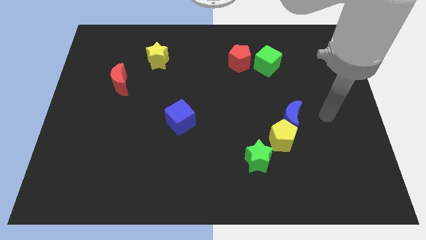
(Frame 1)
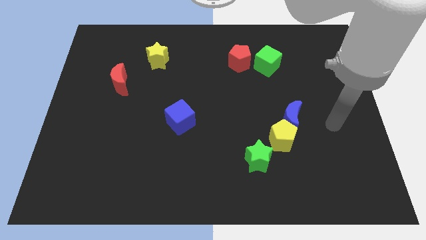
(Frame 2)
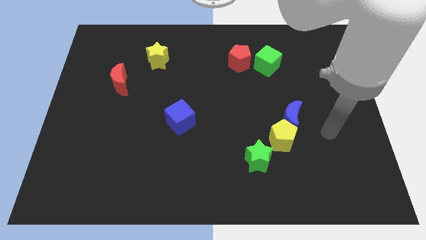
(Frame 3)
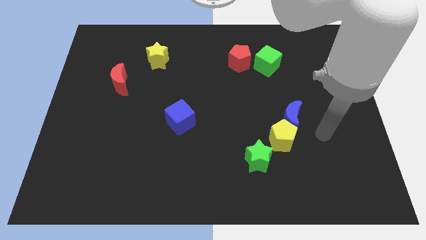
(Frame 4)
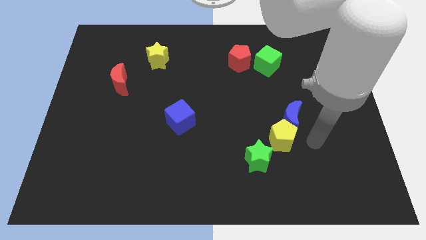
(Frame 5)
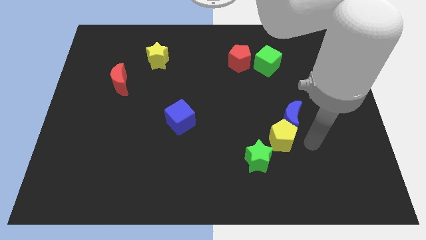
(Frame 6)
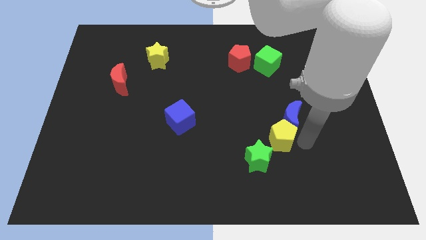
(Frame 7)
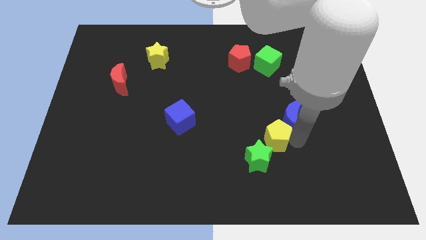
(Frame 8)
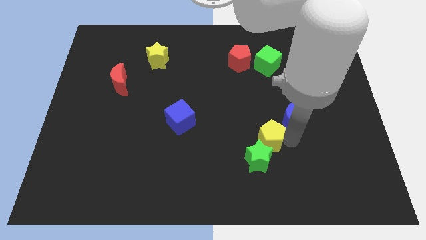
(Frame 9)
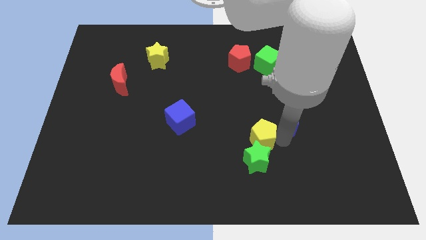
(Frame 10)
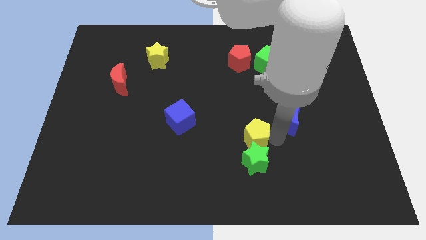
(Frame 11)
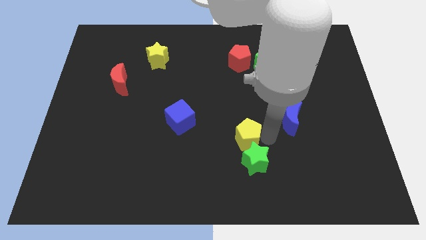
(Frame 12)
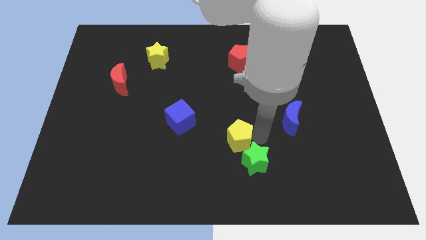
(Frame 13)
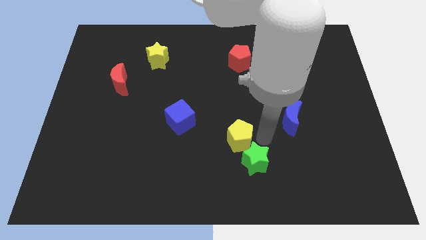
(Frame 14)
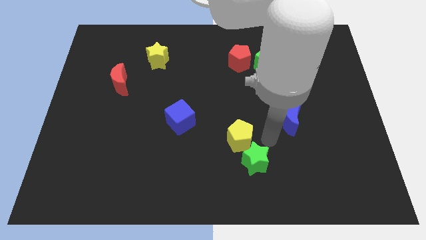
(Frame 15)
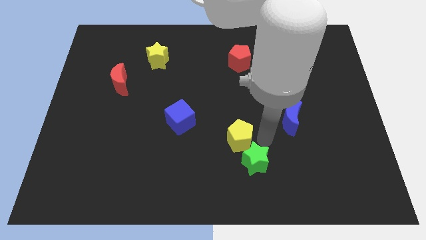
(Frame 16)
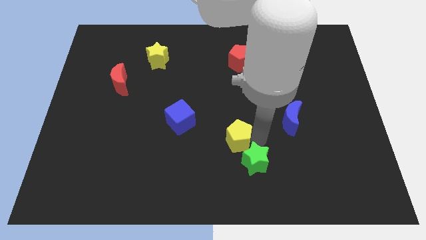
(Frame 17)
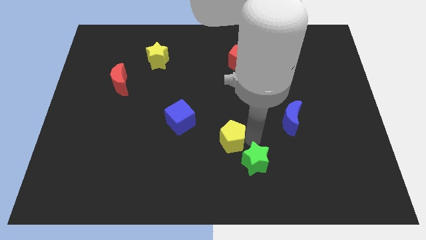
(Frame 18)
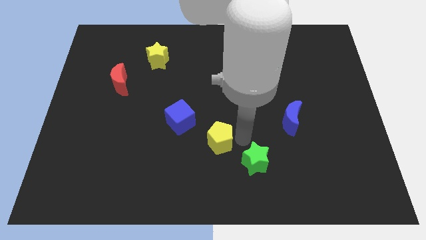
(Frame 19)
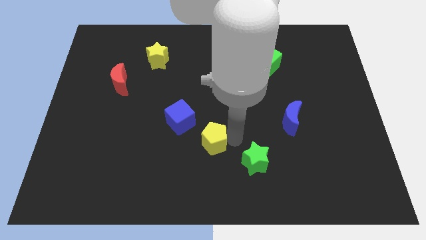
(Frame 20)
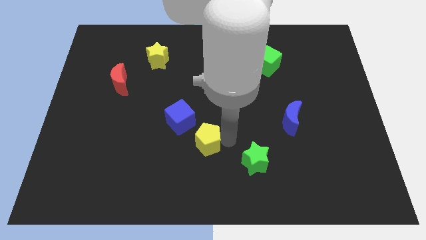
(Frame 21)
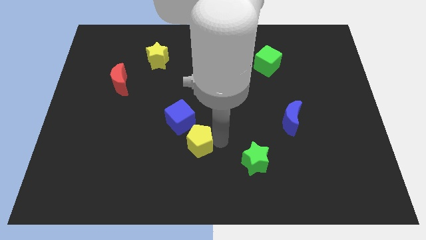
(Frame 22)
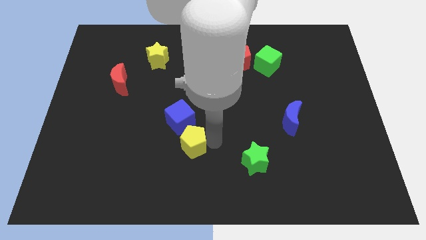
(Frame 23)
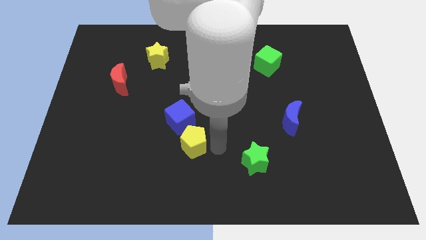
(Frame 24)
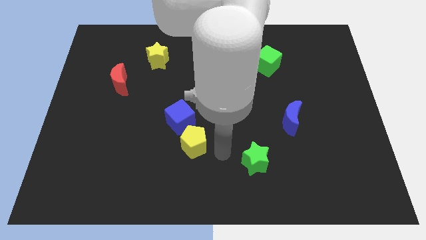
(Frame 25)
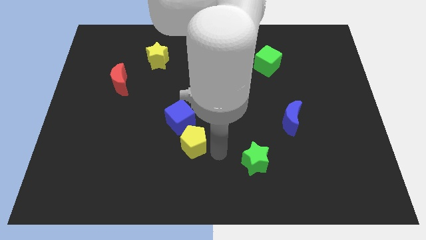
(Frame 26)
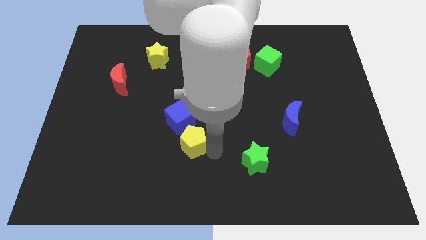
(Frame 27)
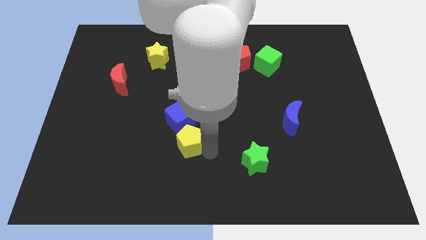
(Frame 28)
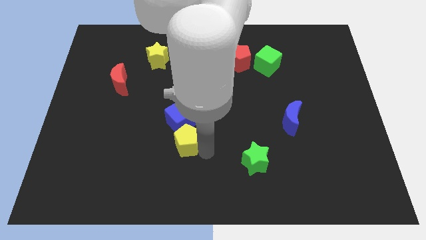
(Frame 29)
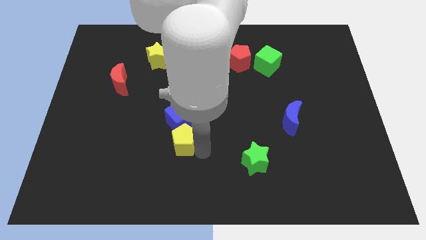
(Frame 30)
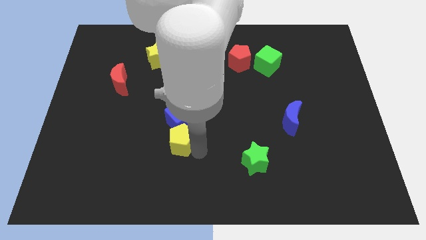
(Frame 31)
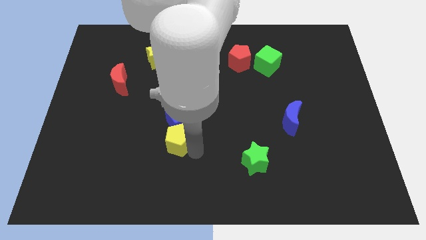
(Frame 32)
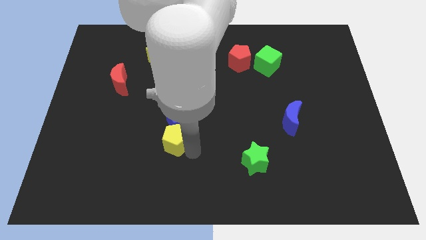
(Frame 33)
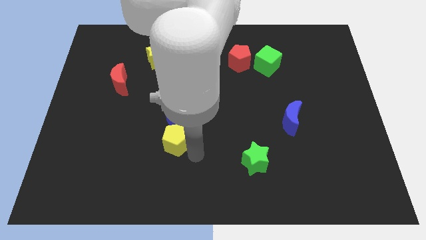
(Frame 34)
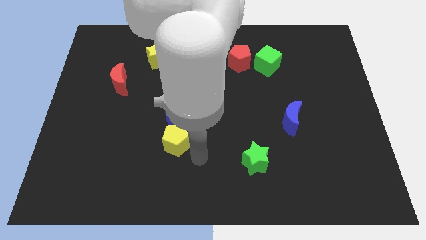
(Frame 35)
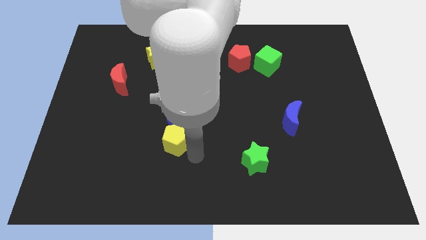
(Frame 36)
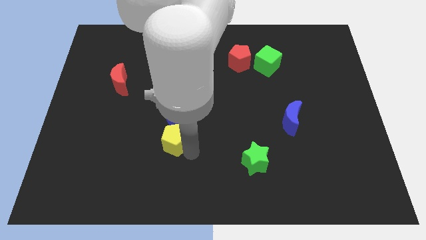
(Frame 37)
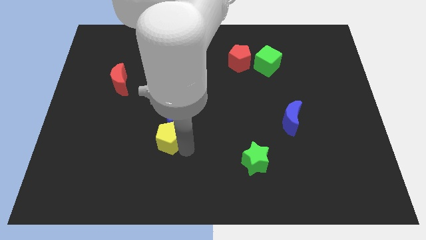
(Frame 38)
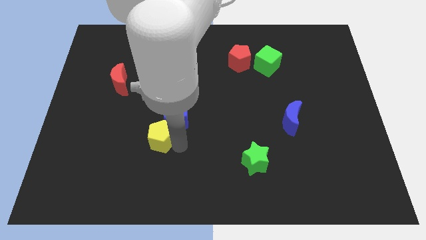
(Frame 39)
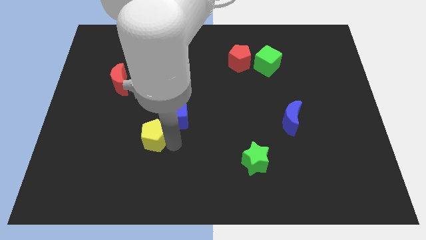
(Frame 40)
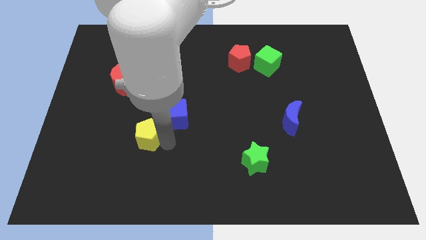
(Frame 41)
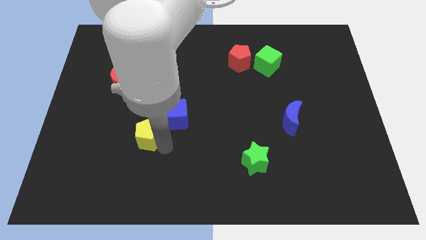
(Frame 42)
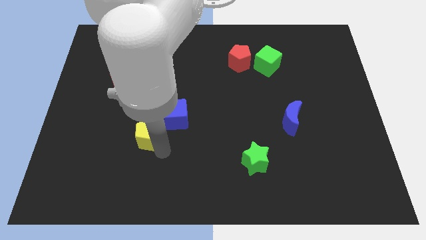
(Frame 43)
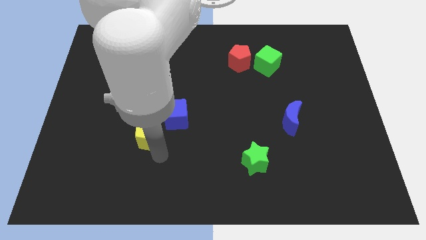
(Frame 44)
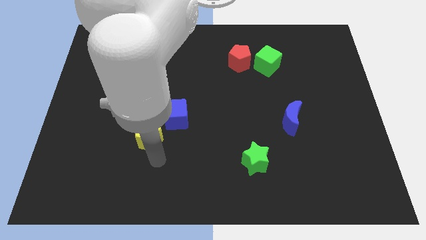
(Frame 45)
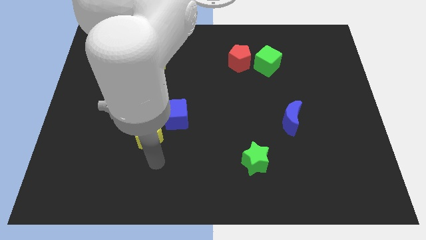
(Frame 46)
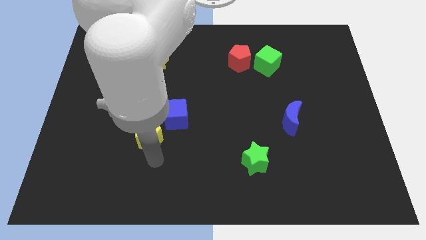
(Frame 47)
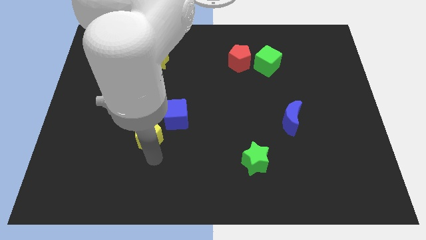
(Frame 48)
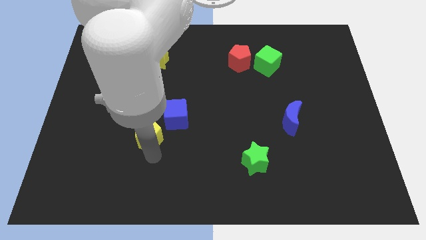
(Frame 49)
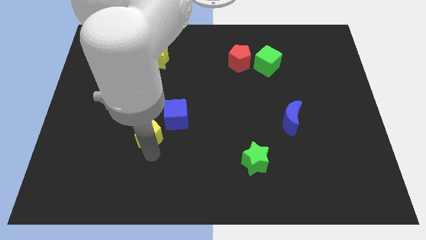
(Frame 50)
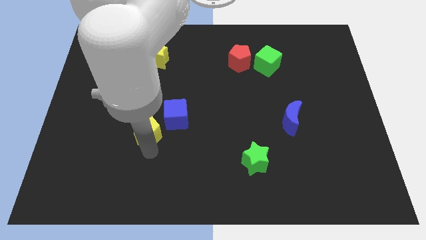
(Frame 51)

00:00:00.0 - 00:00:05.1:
push the yellow pentagon to the left side of the blue cube

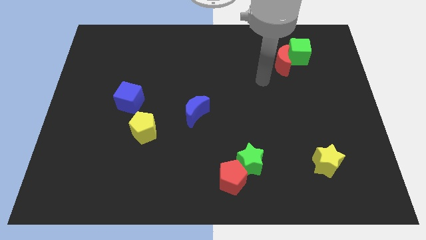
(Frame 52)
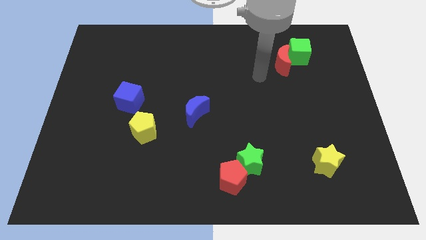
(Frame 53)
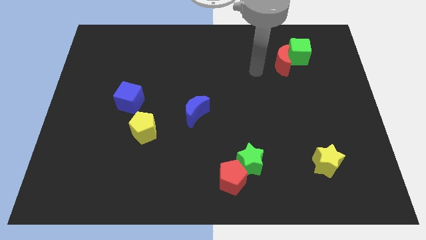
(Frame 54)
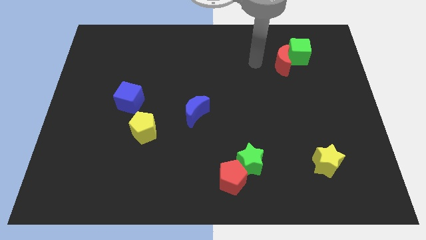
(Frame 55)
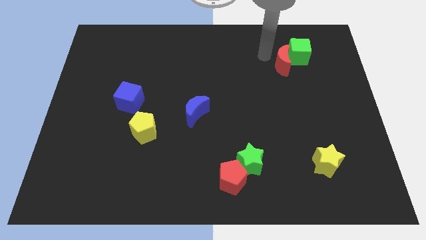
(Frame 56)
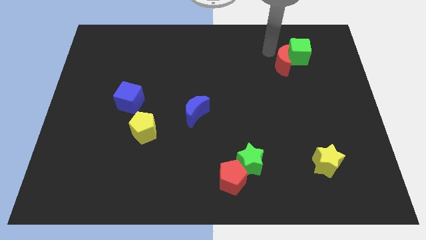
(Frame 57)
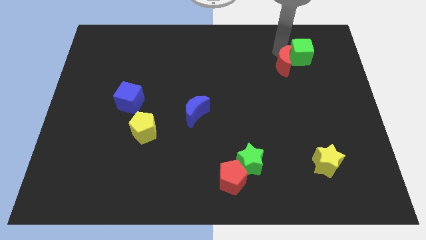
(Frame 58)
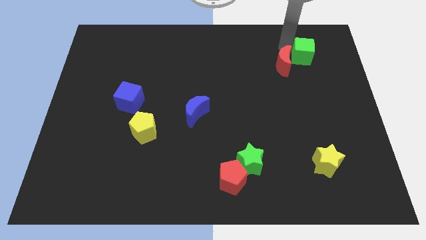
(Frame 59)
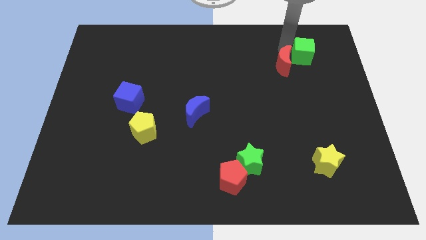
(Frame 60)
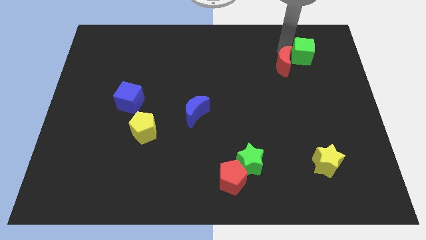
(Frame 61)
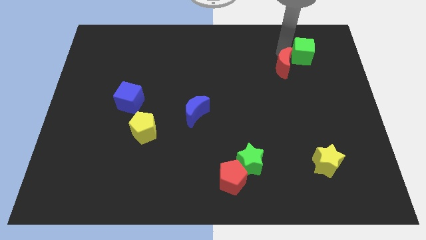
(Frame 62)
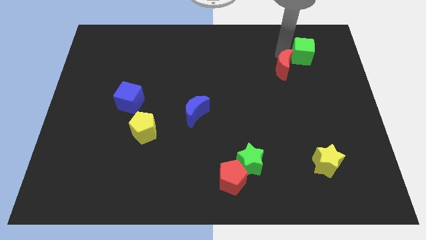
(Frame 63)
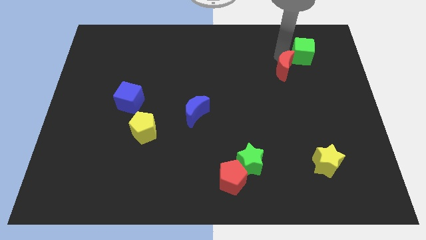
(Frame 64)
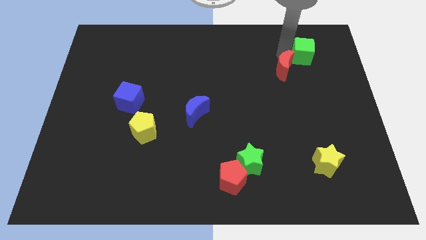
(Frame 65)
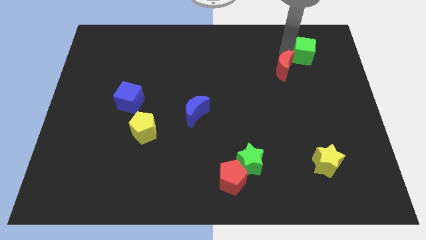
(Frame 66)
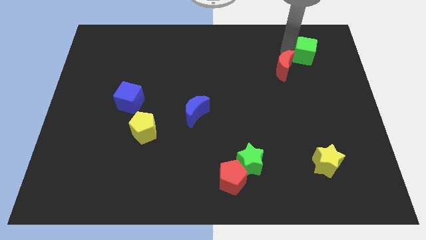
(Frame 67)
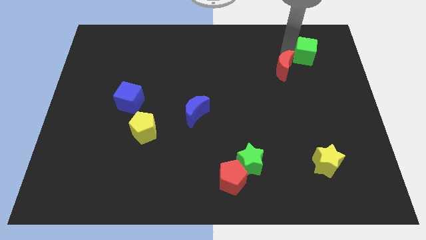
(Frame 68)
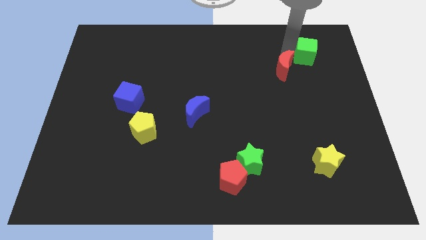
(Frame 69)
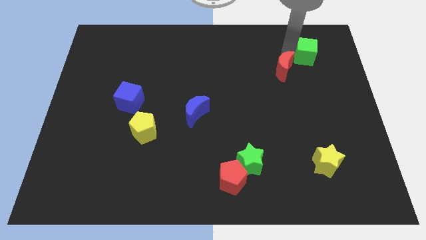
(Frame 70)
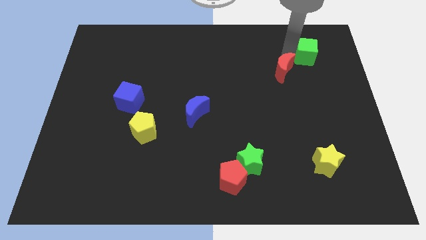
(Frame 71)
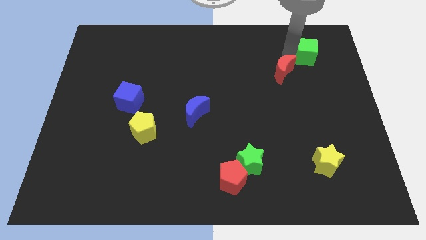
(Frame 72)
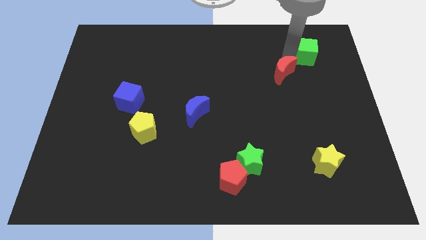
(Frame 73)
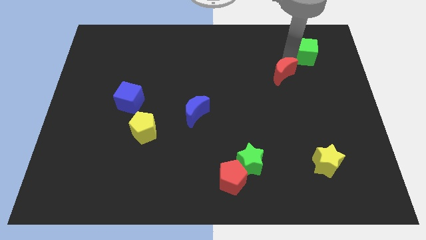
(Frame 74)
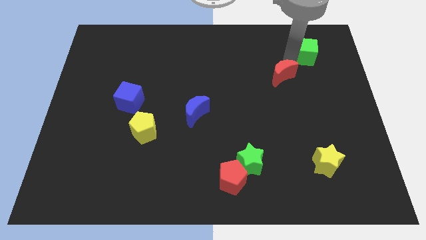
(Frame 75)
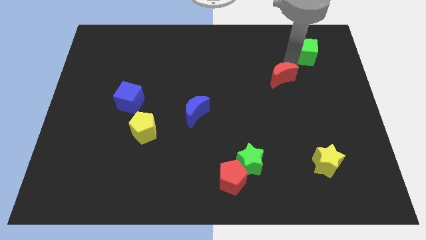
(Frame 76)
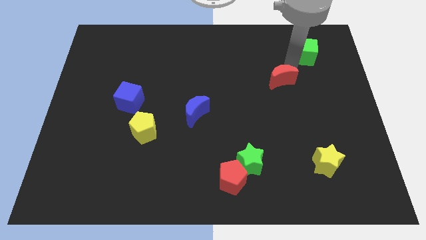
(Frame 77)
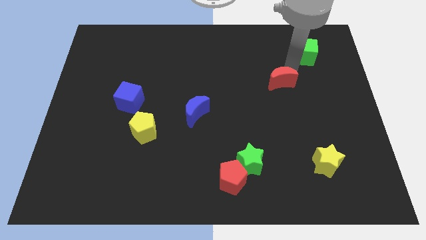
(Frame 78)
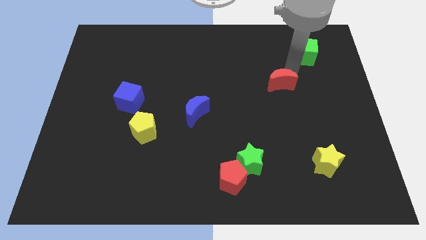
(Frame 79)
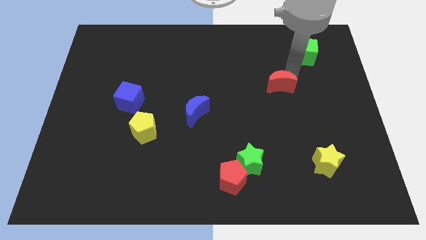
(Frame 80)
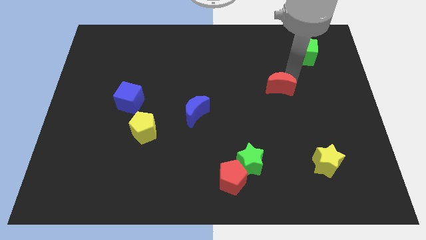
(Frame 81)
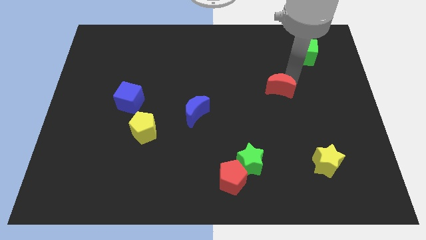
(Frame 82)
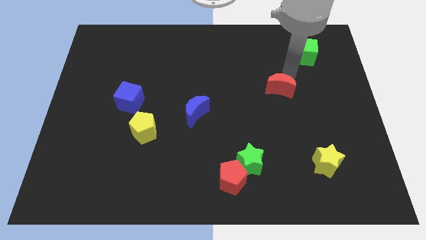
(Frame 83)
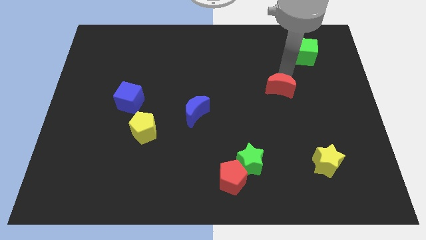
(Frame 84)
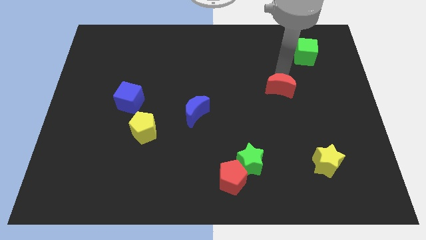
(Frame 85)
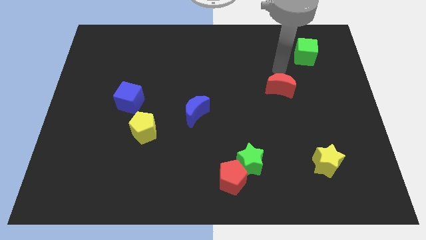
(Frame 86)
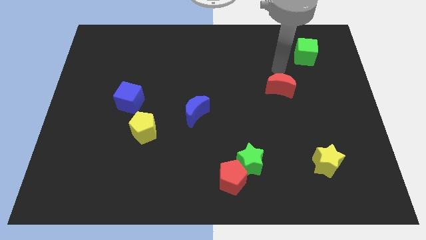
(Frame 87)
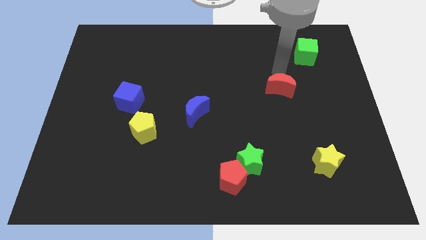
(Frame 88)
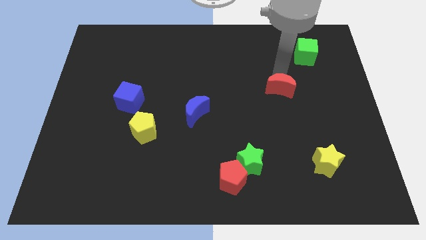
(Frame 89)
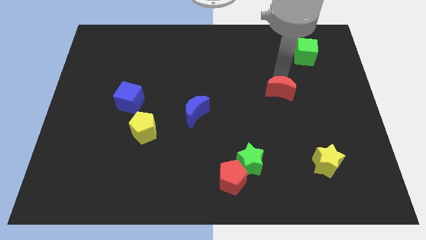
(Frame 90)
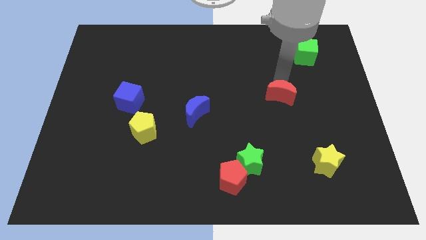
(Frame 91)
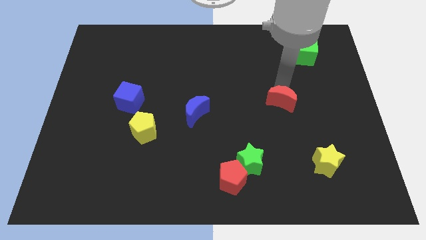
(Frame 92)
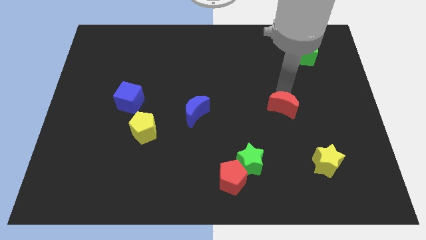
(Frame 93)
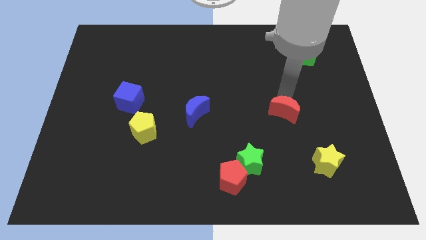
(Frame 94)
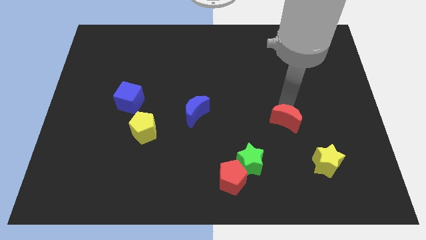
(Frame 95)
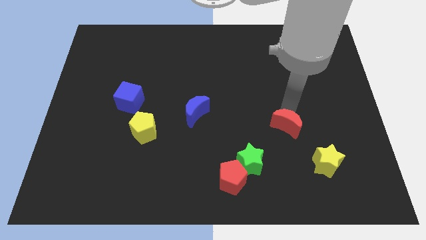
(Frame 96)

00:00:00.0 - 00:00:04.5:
push the red moon diagonally up and to the right of the green star
